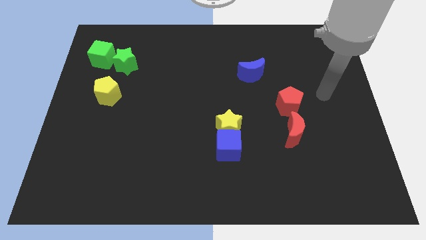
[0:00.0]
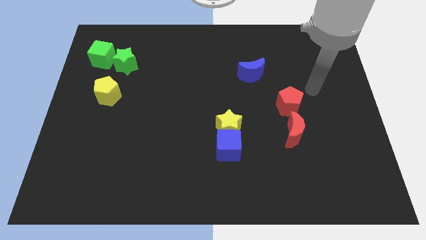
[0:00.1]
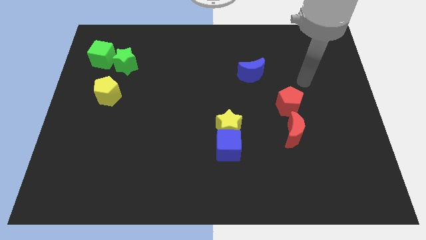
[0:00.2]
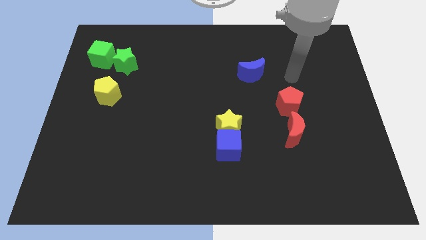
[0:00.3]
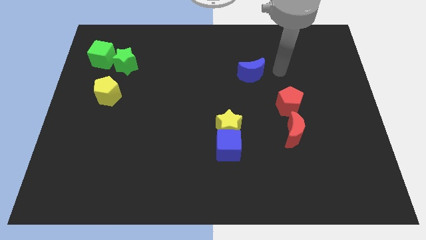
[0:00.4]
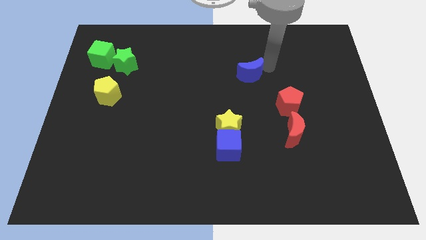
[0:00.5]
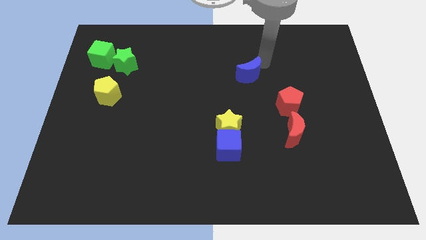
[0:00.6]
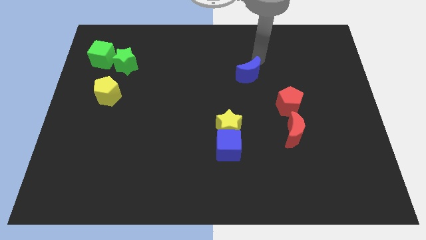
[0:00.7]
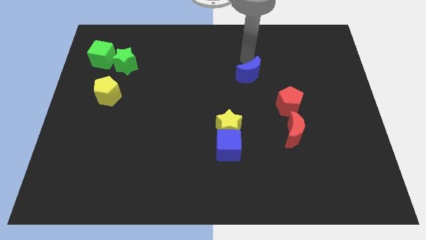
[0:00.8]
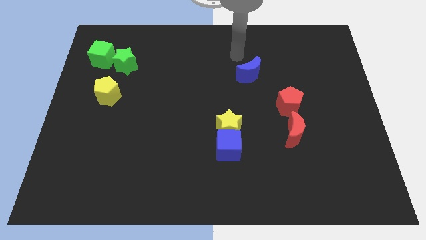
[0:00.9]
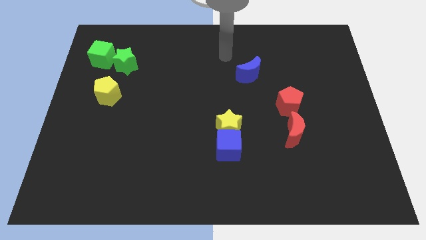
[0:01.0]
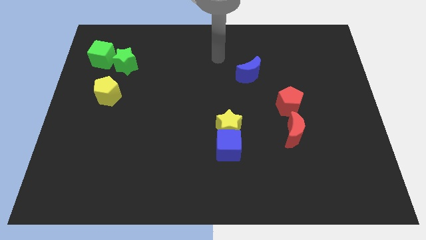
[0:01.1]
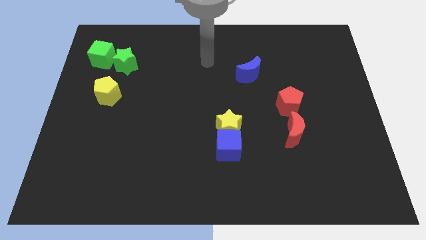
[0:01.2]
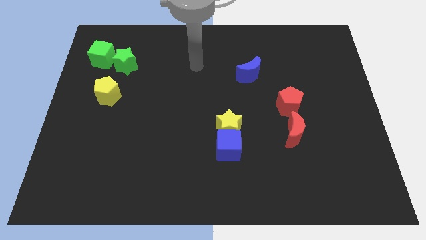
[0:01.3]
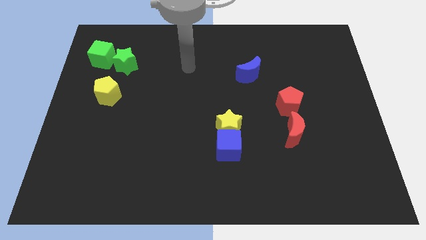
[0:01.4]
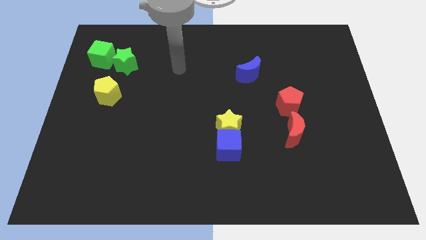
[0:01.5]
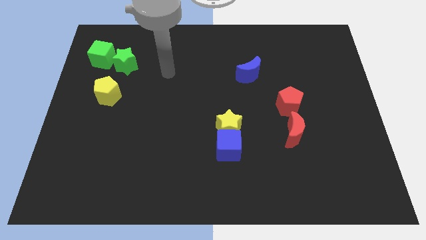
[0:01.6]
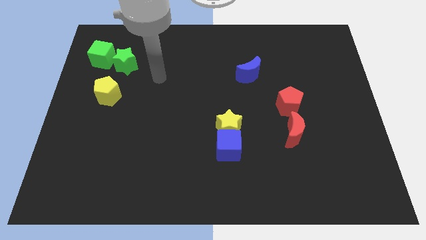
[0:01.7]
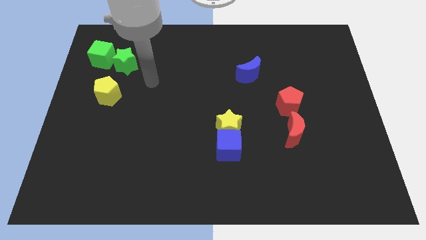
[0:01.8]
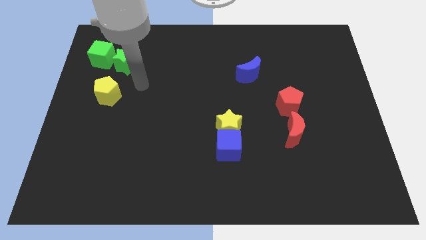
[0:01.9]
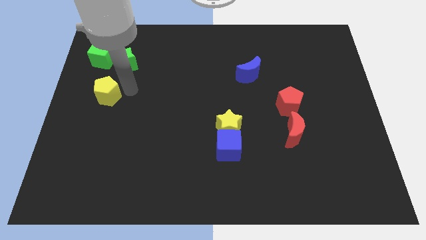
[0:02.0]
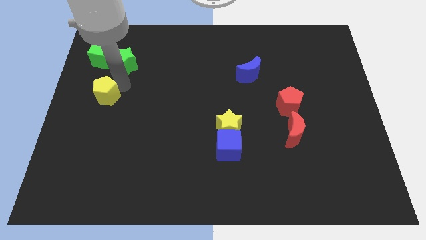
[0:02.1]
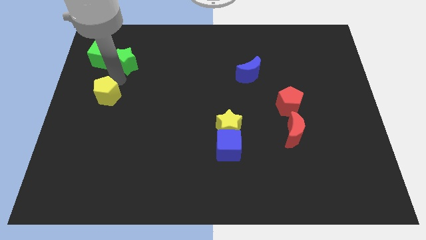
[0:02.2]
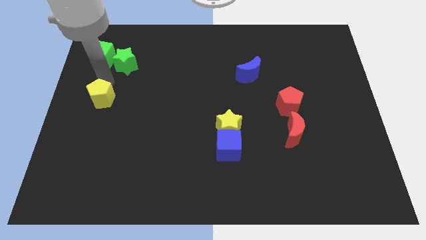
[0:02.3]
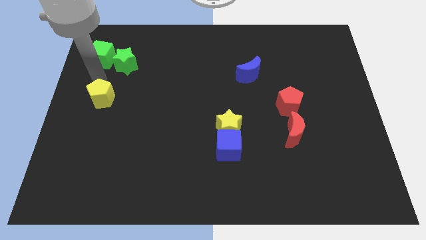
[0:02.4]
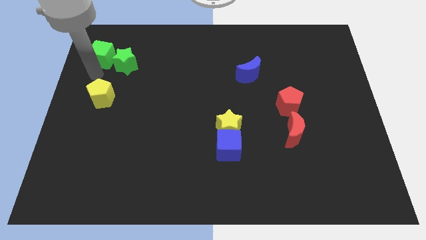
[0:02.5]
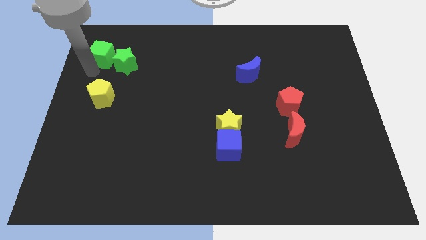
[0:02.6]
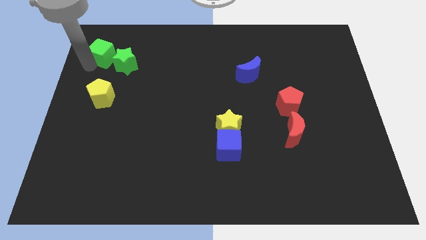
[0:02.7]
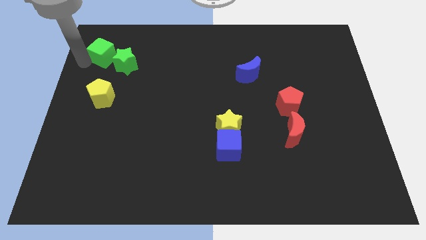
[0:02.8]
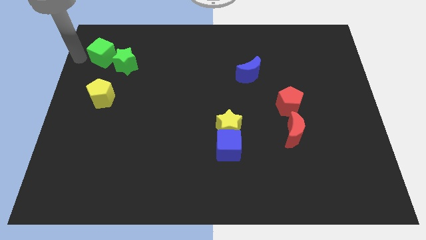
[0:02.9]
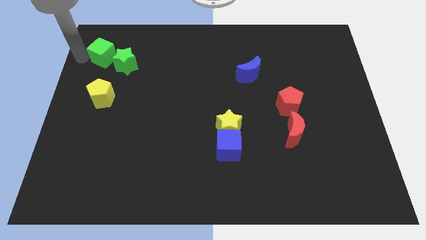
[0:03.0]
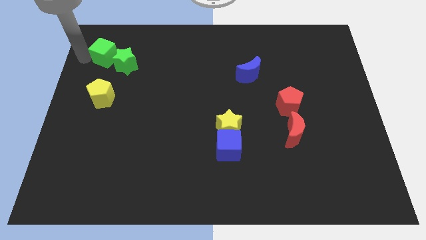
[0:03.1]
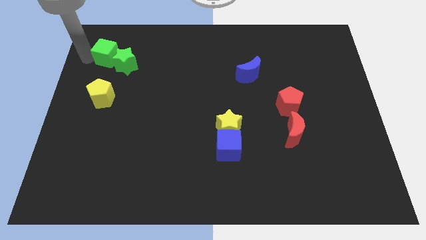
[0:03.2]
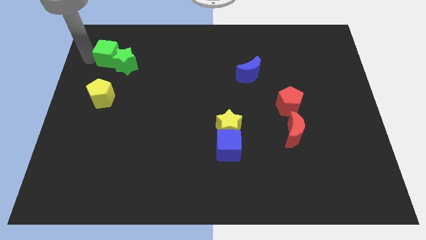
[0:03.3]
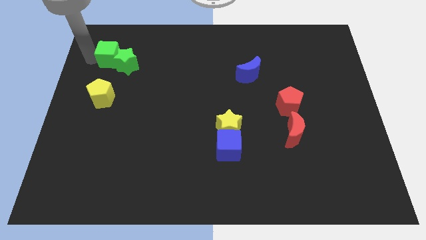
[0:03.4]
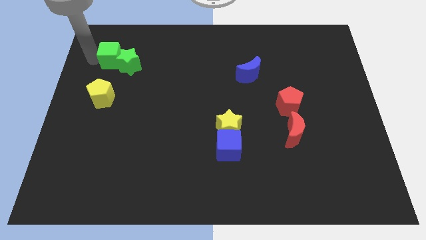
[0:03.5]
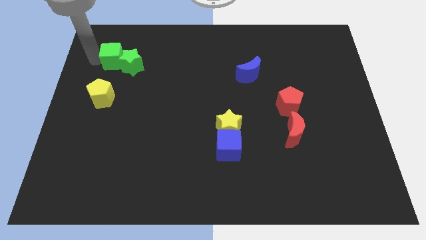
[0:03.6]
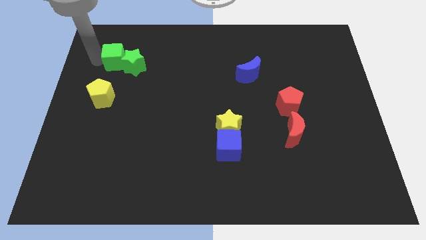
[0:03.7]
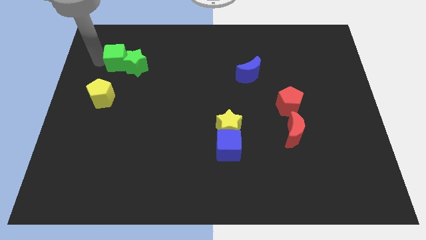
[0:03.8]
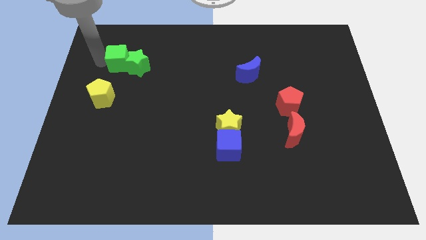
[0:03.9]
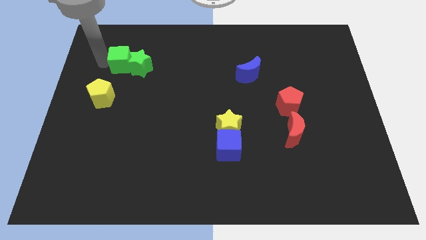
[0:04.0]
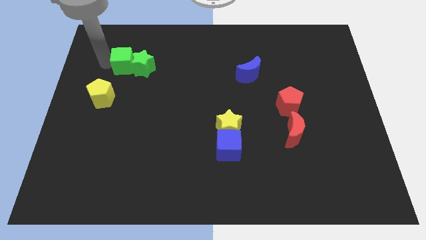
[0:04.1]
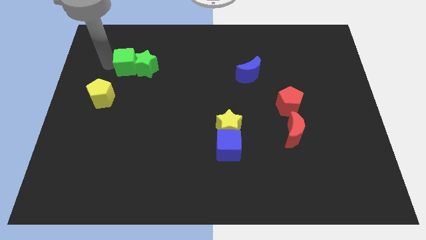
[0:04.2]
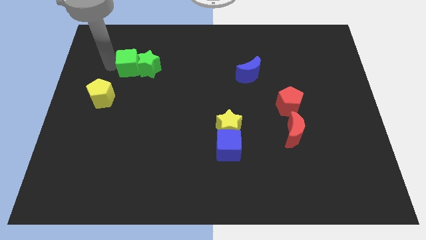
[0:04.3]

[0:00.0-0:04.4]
move the green cube to the right slightly

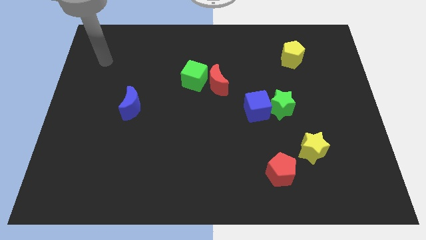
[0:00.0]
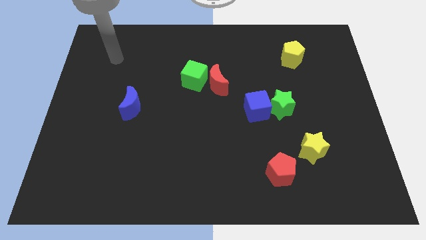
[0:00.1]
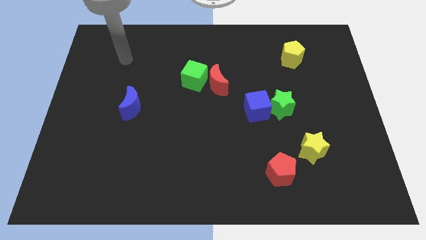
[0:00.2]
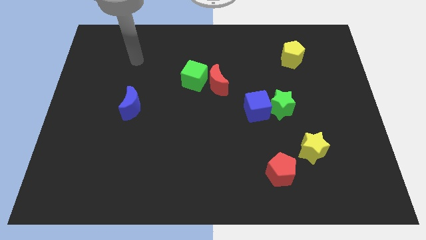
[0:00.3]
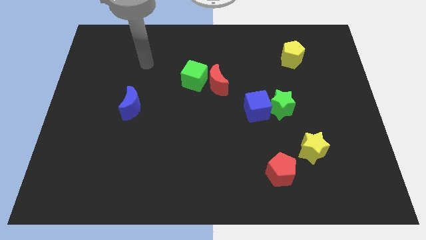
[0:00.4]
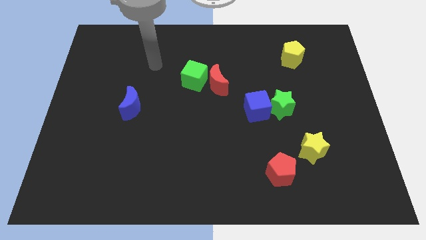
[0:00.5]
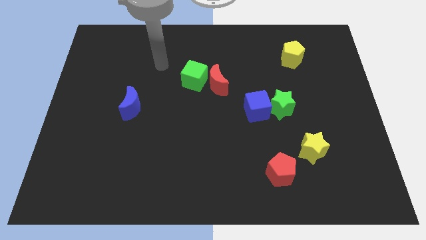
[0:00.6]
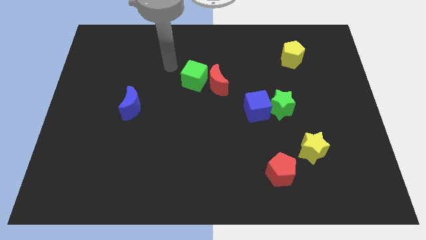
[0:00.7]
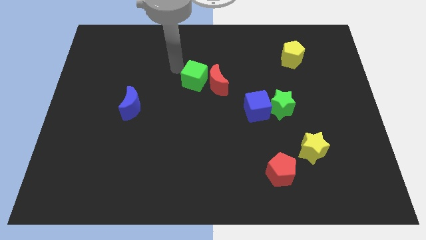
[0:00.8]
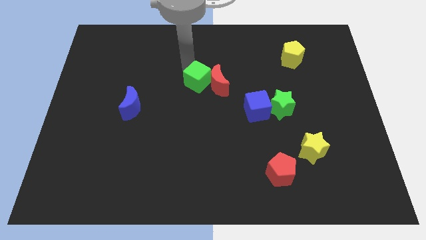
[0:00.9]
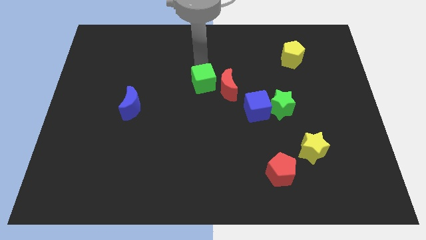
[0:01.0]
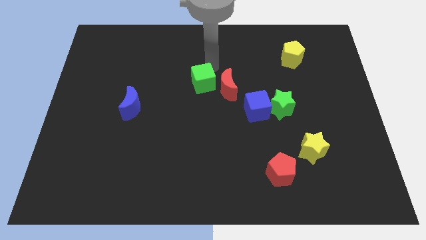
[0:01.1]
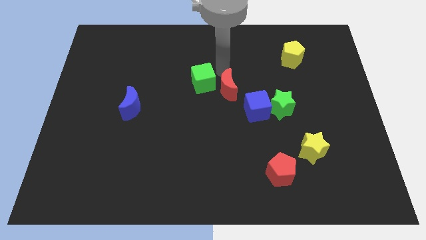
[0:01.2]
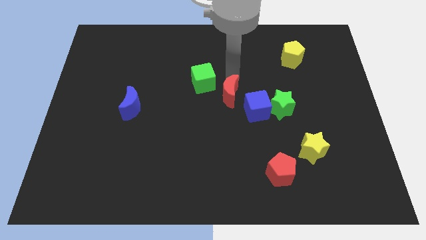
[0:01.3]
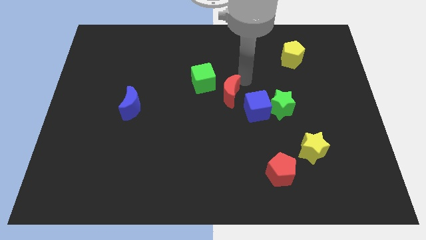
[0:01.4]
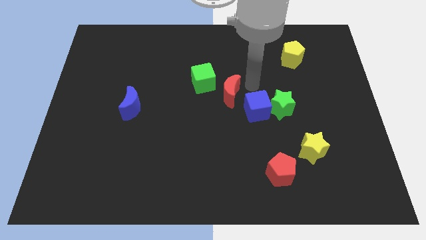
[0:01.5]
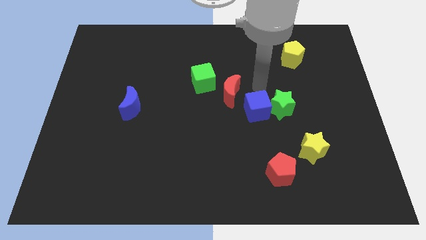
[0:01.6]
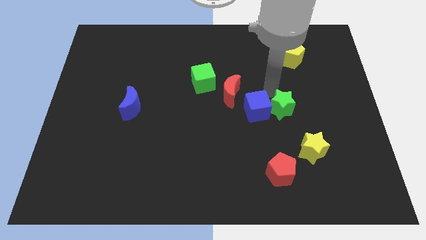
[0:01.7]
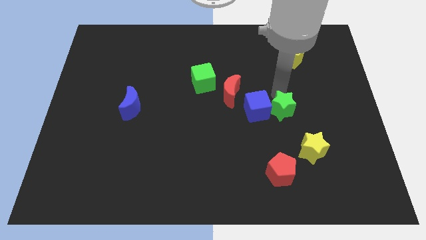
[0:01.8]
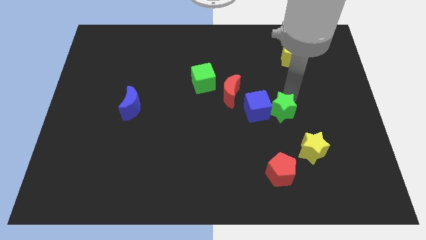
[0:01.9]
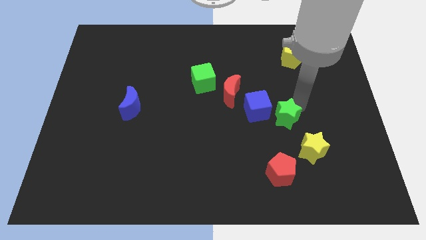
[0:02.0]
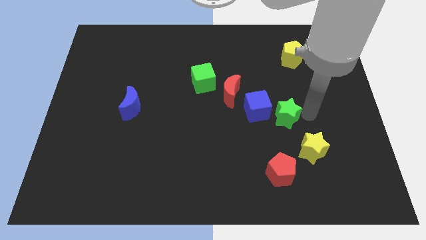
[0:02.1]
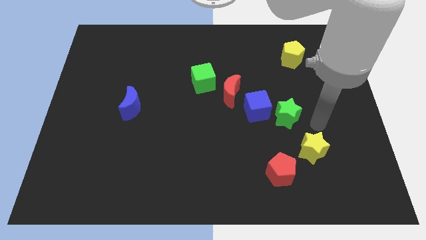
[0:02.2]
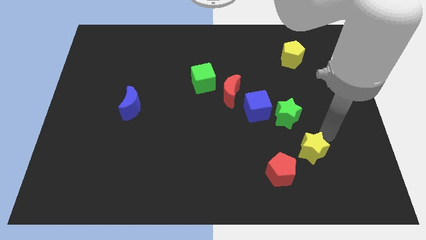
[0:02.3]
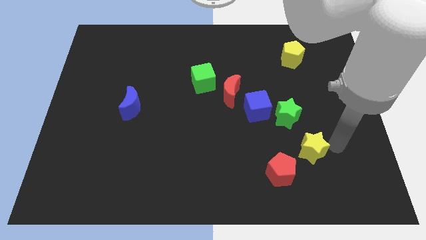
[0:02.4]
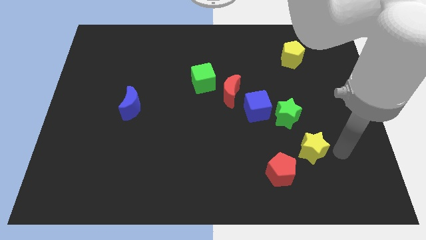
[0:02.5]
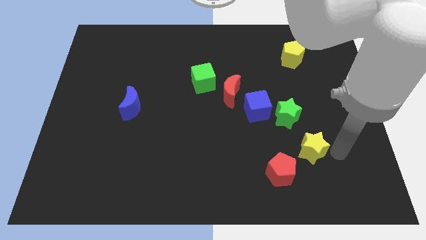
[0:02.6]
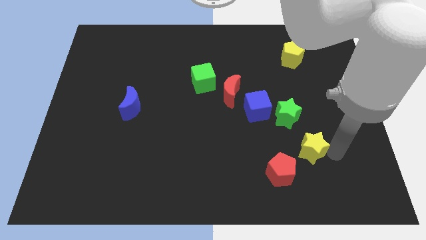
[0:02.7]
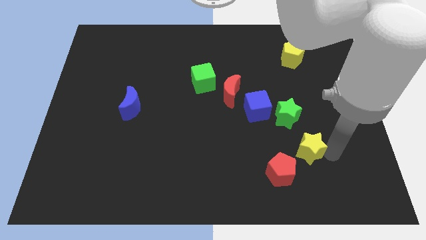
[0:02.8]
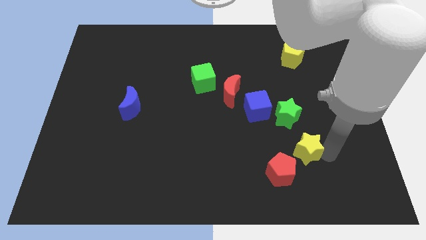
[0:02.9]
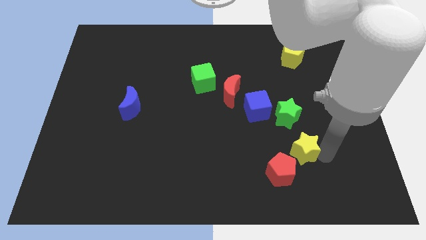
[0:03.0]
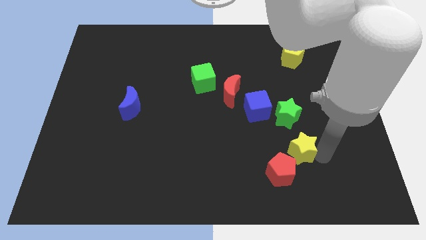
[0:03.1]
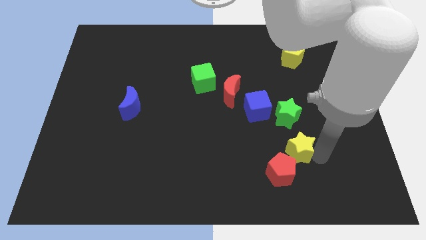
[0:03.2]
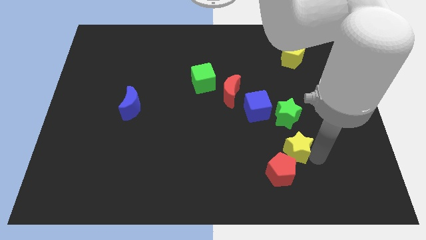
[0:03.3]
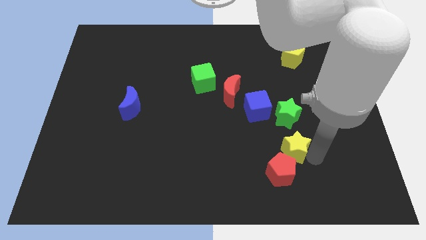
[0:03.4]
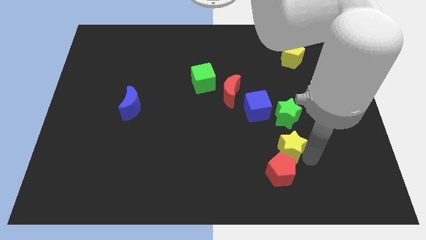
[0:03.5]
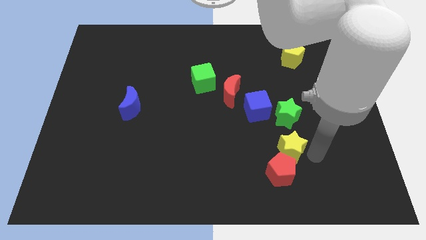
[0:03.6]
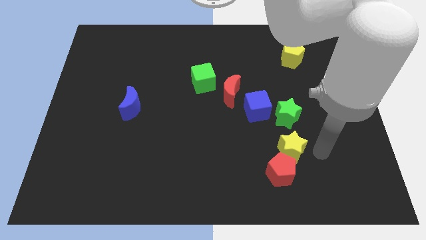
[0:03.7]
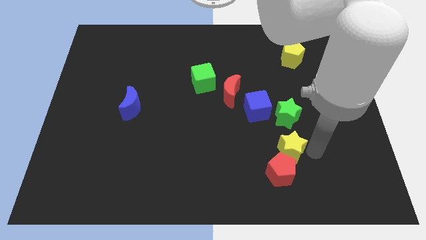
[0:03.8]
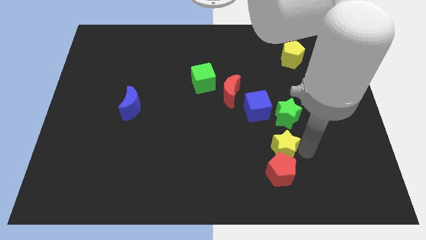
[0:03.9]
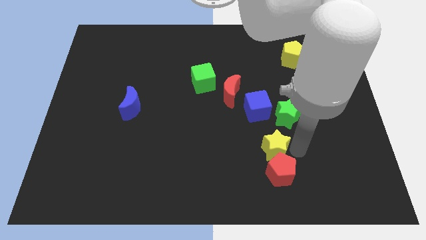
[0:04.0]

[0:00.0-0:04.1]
move the yellow star left somewhat
